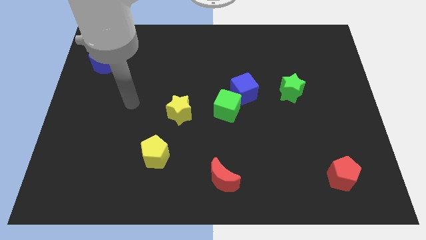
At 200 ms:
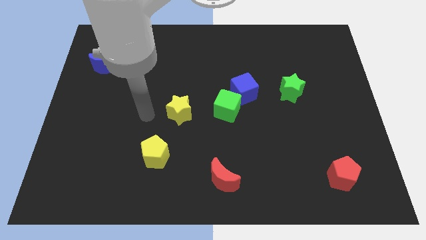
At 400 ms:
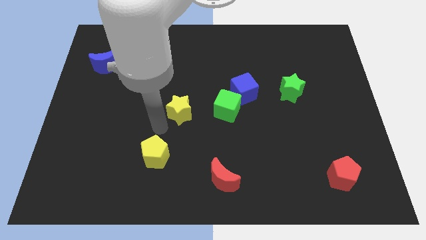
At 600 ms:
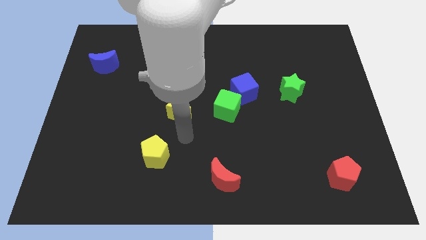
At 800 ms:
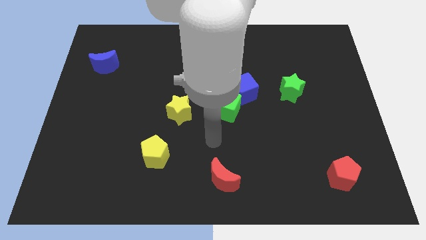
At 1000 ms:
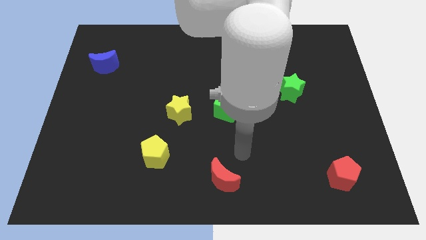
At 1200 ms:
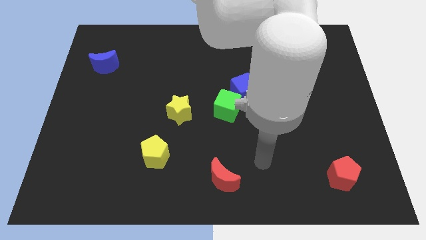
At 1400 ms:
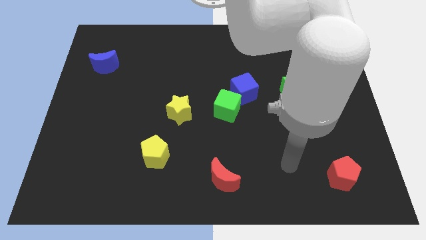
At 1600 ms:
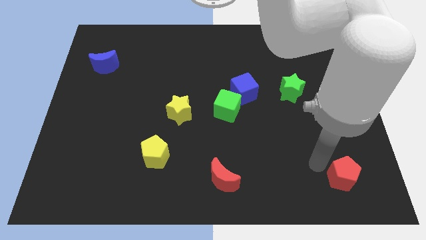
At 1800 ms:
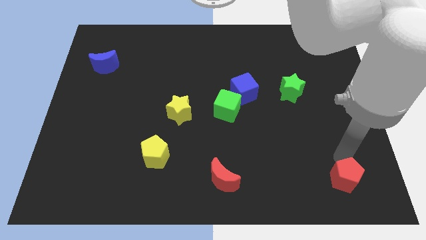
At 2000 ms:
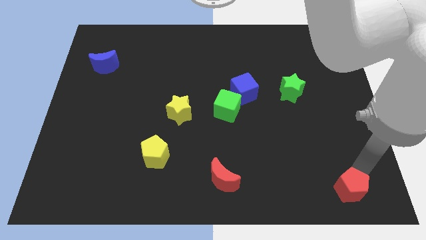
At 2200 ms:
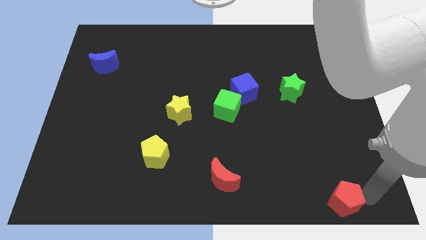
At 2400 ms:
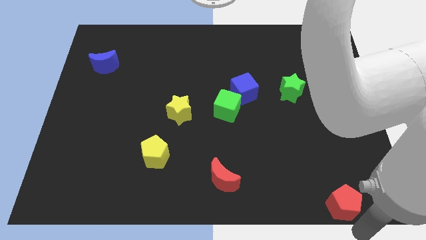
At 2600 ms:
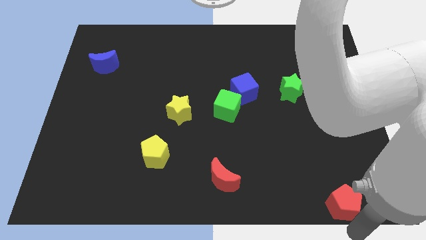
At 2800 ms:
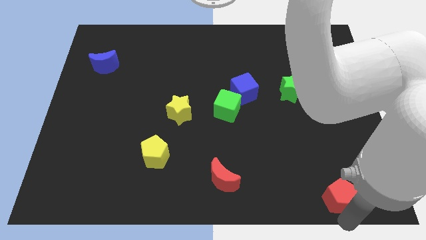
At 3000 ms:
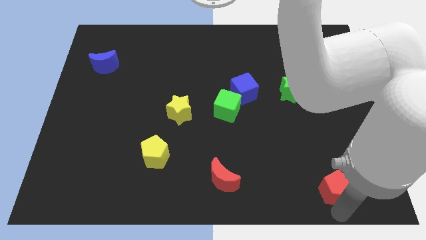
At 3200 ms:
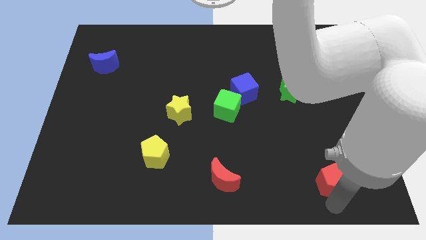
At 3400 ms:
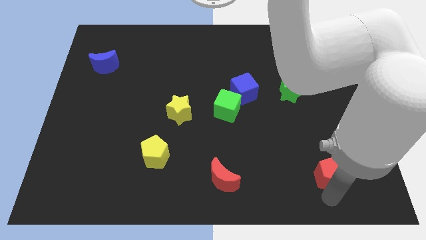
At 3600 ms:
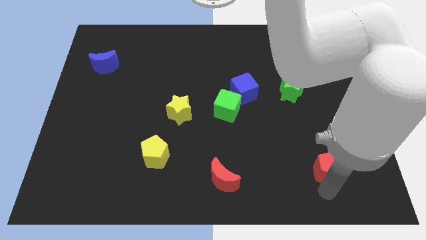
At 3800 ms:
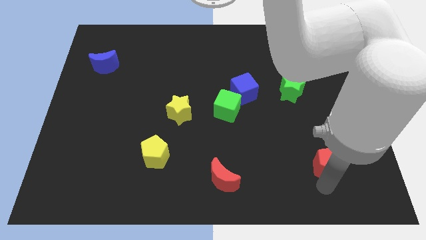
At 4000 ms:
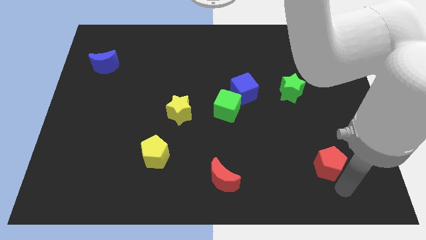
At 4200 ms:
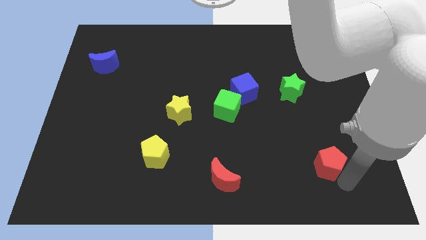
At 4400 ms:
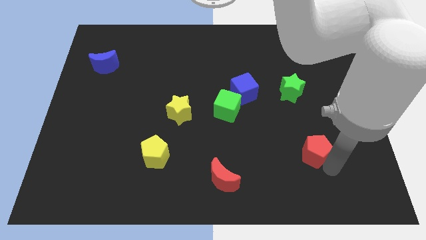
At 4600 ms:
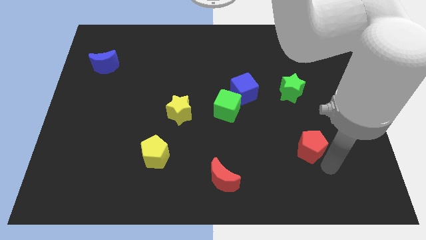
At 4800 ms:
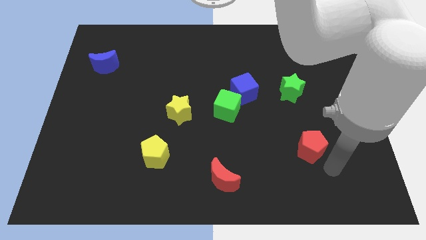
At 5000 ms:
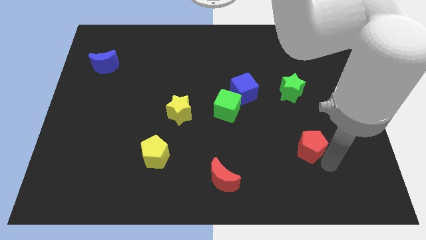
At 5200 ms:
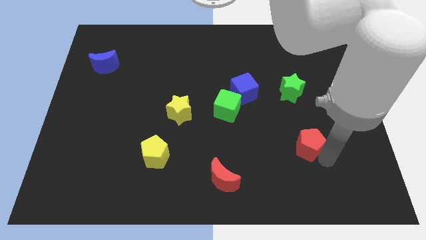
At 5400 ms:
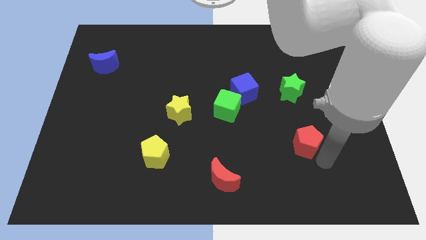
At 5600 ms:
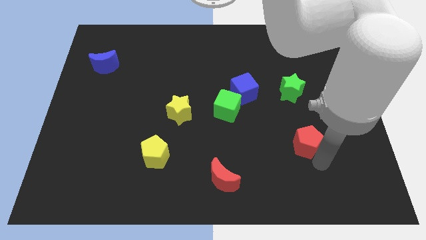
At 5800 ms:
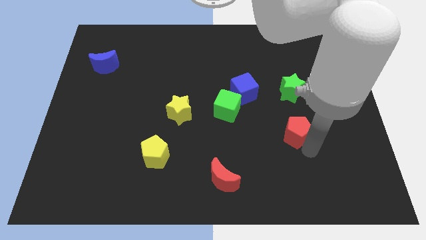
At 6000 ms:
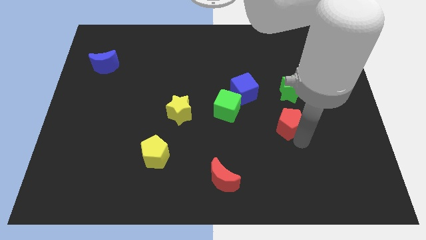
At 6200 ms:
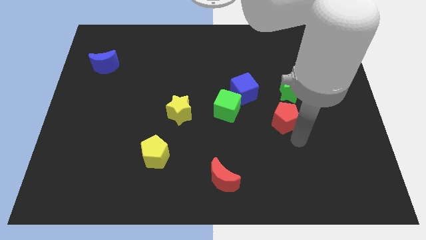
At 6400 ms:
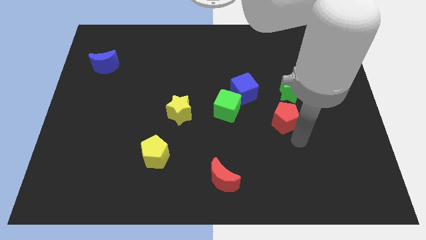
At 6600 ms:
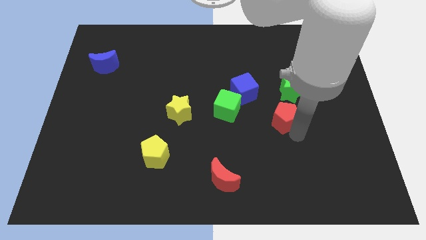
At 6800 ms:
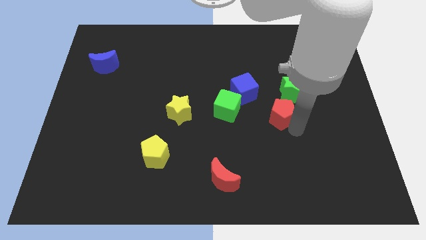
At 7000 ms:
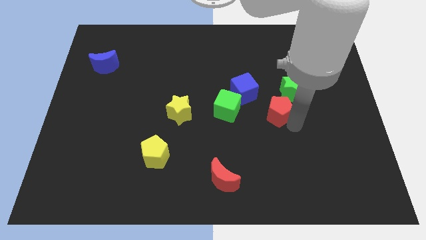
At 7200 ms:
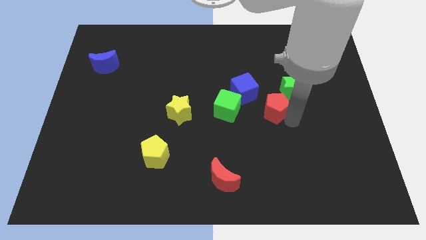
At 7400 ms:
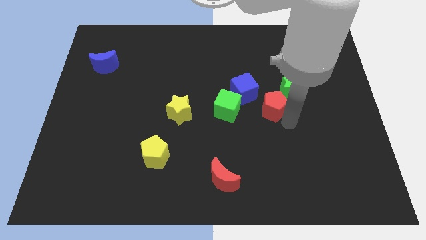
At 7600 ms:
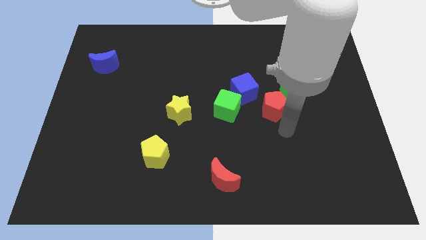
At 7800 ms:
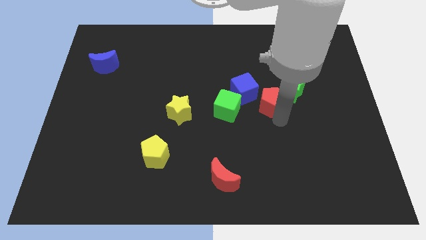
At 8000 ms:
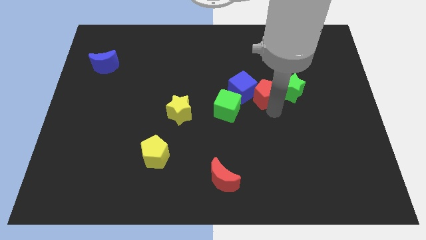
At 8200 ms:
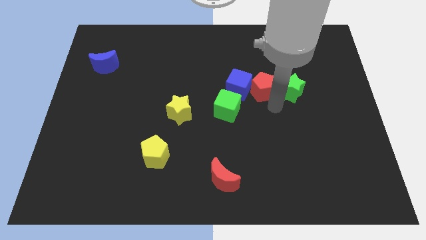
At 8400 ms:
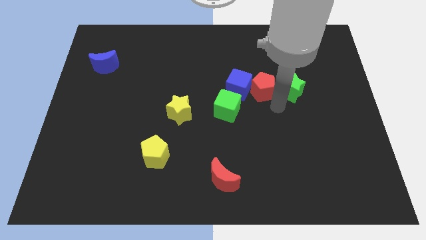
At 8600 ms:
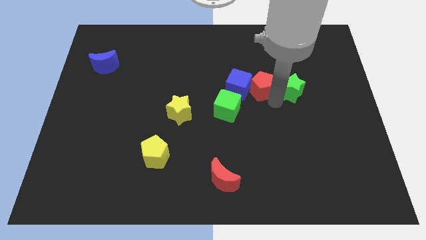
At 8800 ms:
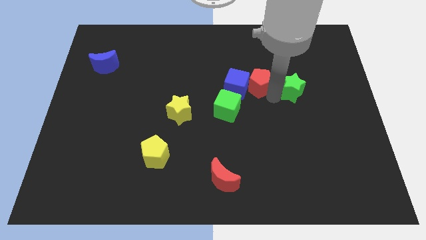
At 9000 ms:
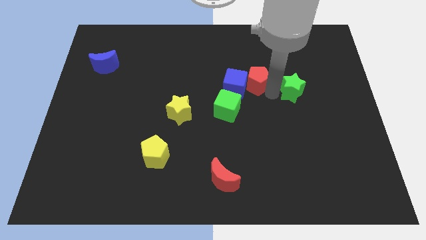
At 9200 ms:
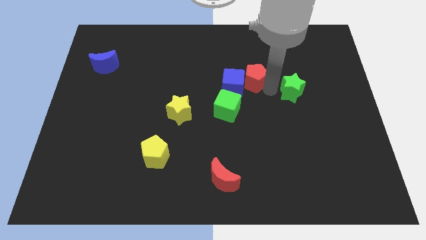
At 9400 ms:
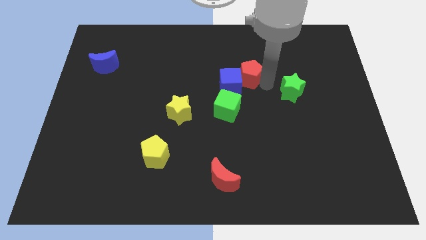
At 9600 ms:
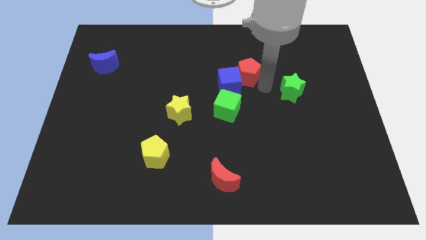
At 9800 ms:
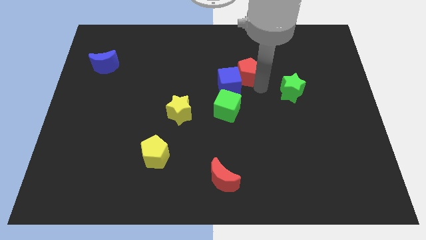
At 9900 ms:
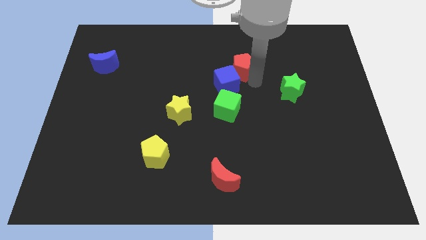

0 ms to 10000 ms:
slide the red pentagon to the top of the blue cube

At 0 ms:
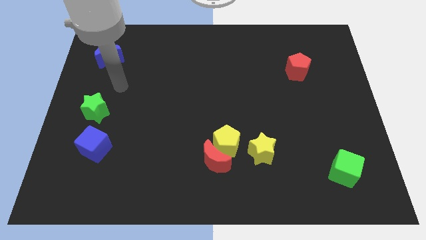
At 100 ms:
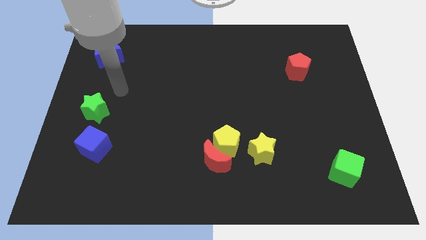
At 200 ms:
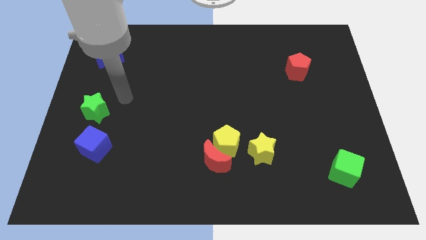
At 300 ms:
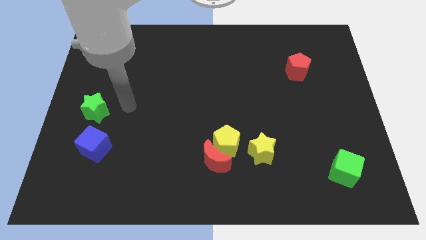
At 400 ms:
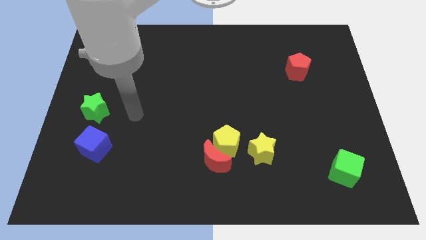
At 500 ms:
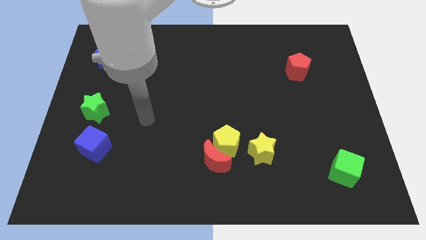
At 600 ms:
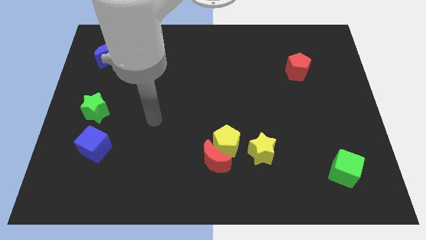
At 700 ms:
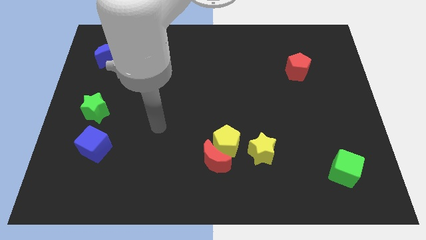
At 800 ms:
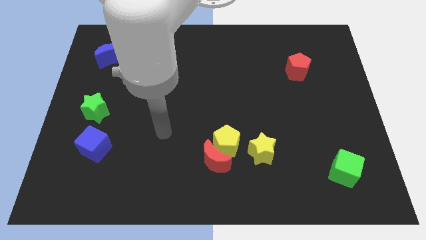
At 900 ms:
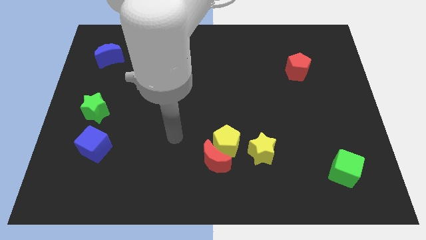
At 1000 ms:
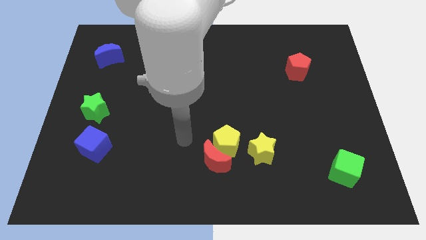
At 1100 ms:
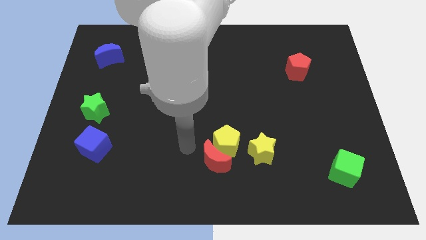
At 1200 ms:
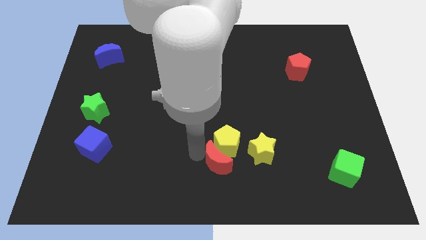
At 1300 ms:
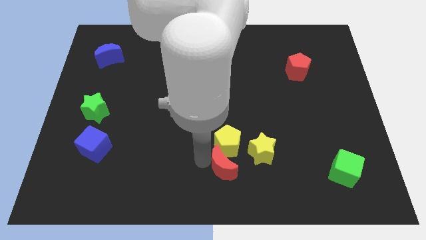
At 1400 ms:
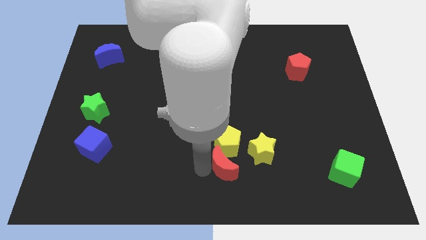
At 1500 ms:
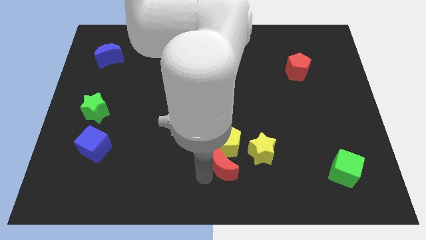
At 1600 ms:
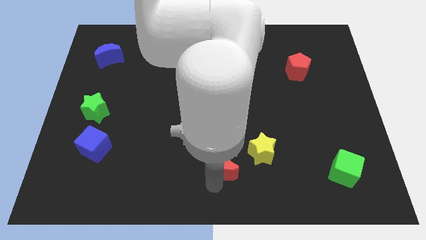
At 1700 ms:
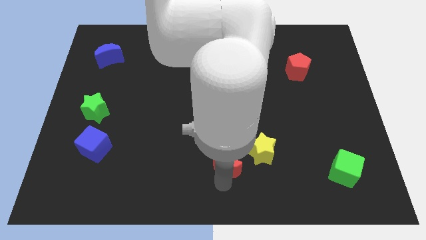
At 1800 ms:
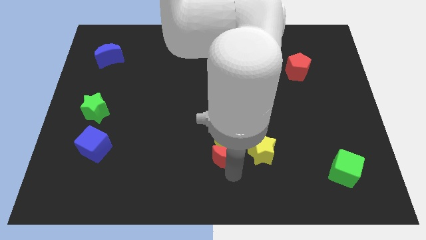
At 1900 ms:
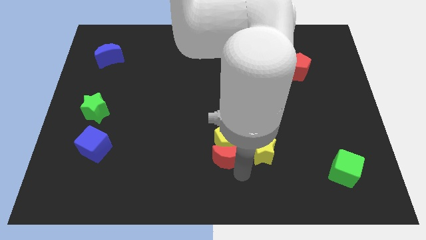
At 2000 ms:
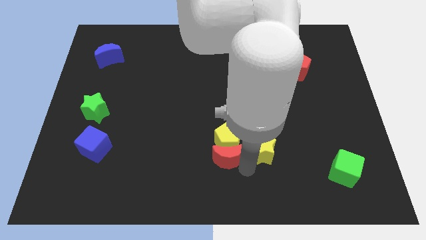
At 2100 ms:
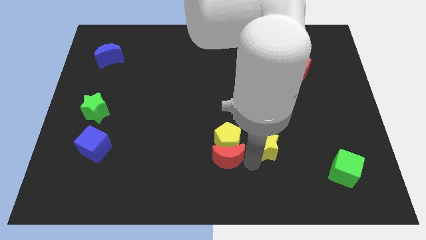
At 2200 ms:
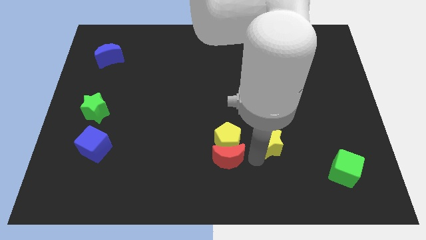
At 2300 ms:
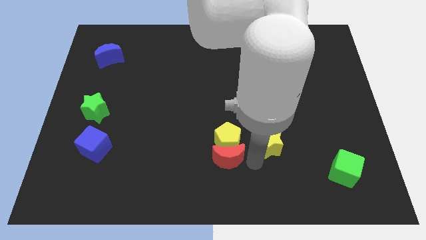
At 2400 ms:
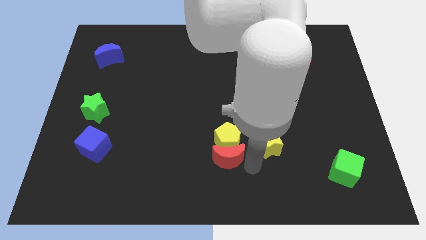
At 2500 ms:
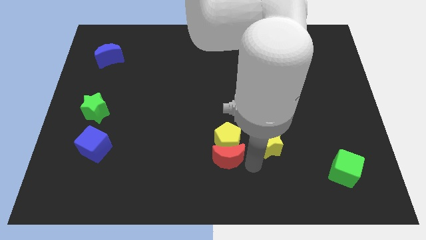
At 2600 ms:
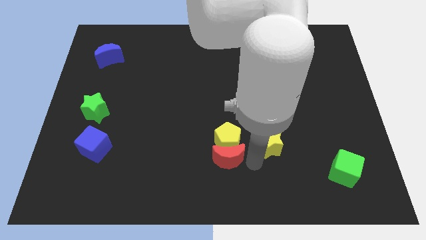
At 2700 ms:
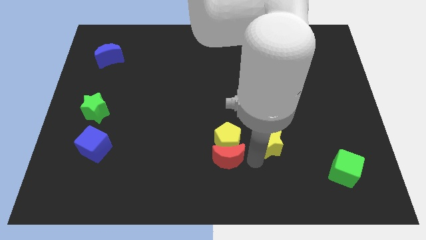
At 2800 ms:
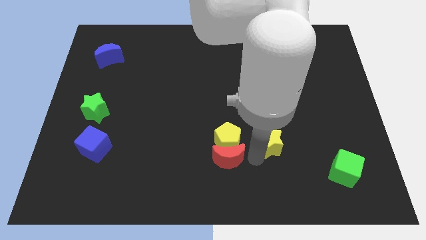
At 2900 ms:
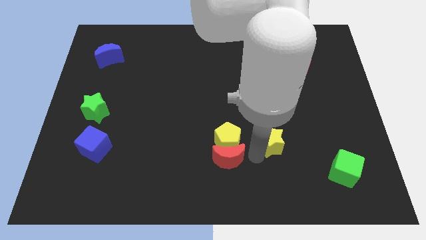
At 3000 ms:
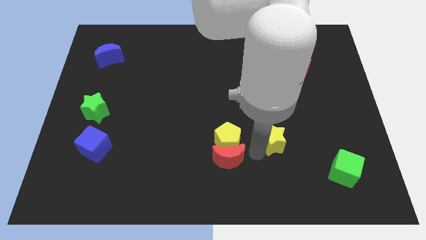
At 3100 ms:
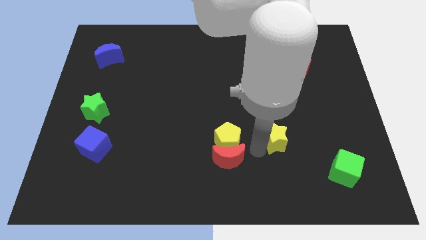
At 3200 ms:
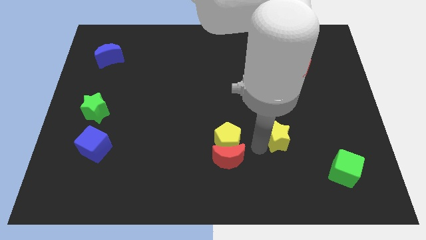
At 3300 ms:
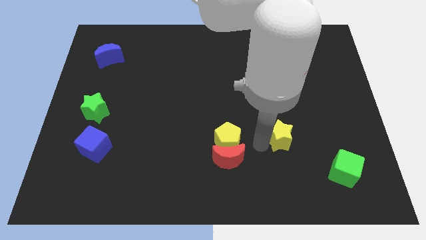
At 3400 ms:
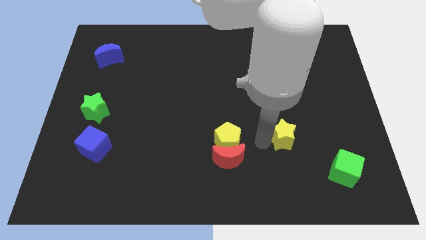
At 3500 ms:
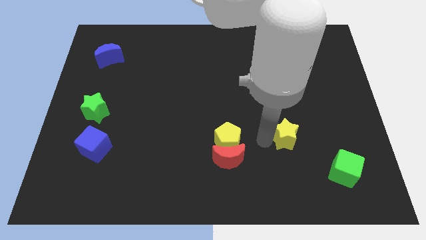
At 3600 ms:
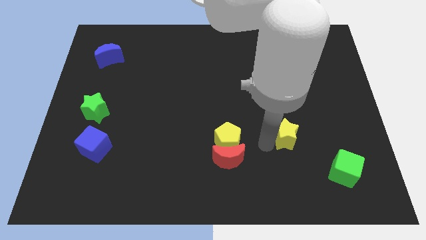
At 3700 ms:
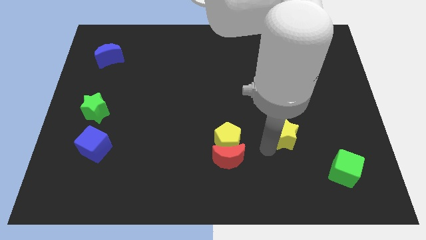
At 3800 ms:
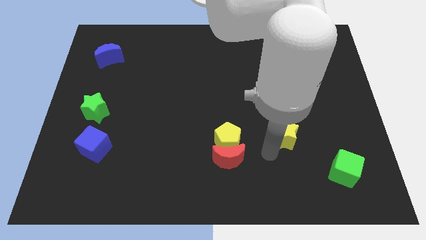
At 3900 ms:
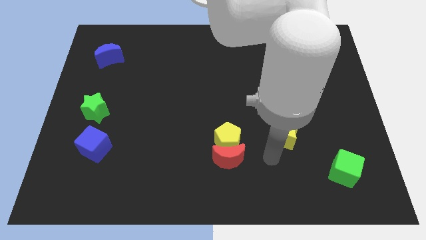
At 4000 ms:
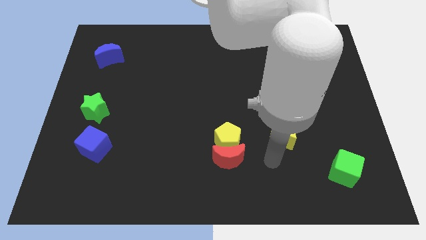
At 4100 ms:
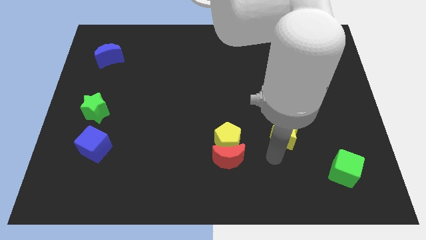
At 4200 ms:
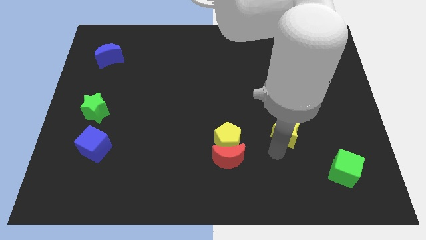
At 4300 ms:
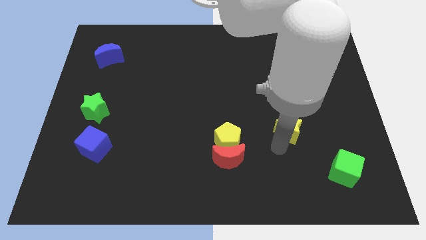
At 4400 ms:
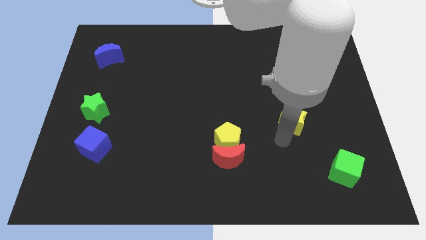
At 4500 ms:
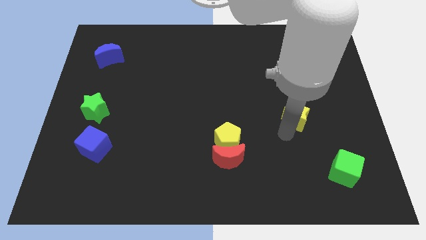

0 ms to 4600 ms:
slide the yellow star below the red pentagon
